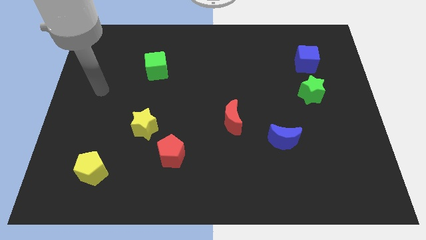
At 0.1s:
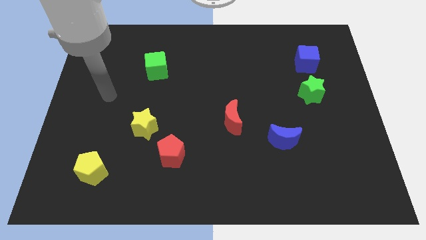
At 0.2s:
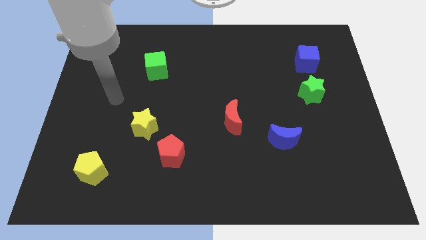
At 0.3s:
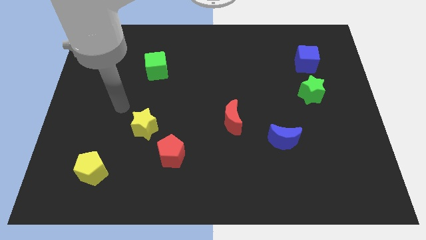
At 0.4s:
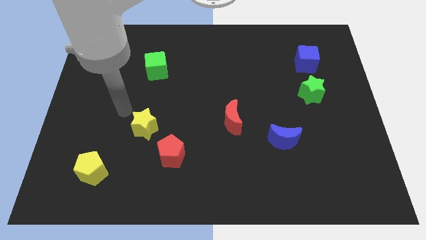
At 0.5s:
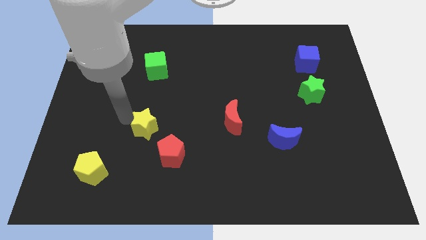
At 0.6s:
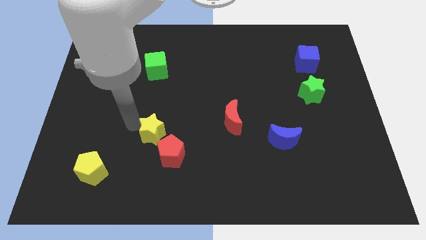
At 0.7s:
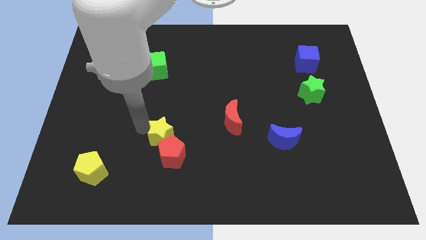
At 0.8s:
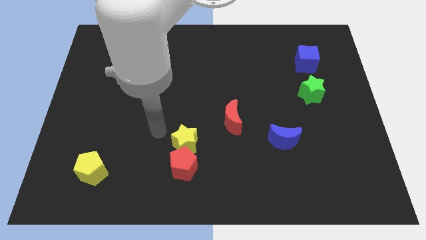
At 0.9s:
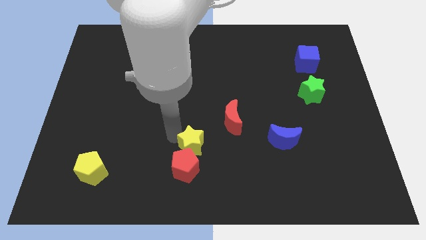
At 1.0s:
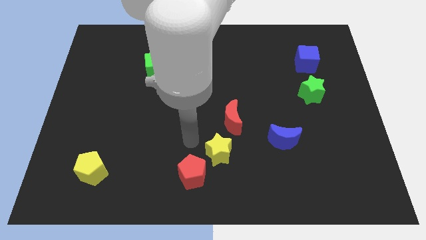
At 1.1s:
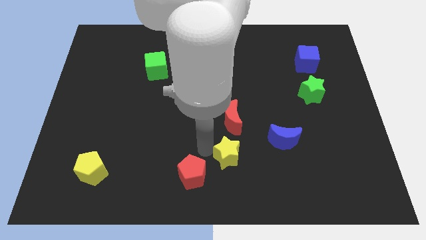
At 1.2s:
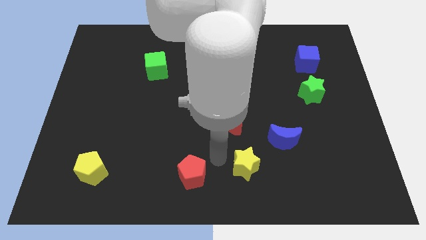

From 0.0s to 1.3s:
move the red pentagon away from the yellow star

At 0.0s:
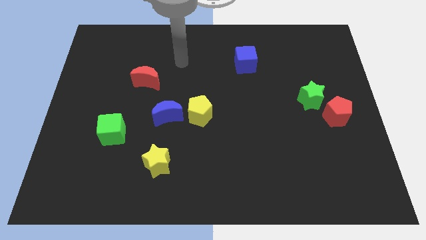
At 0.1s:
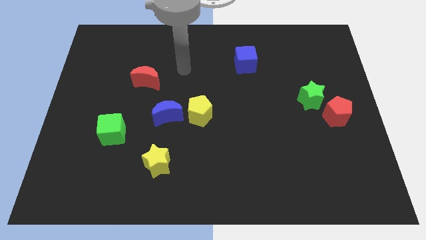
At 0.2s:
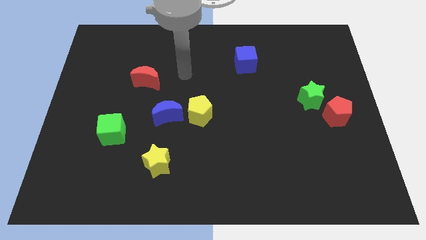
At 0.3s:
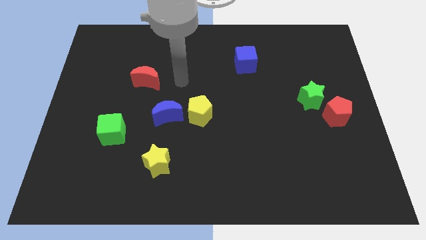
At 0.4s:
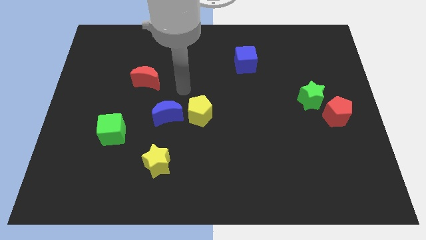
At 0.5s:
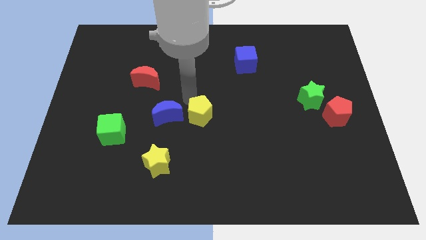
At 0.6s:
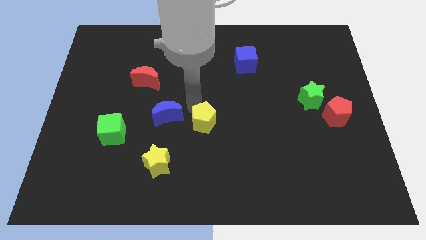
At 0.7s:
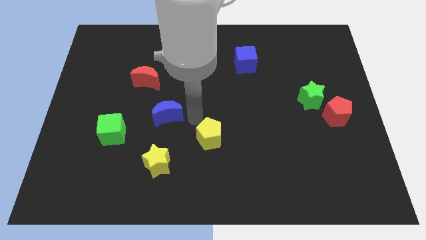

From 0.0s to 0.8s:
pull the blue moon apart from the yellow pentagon

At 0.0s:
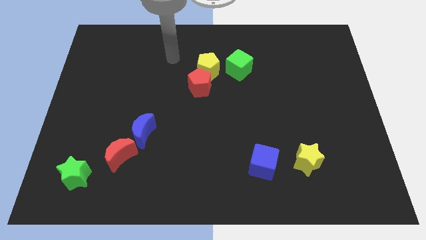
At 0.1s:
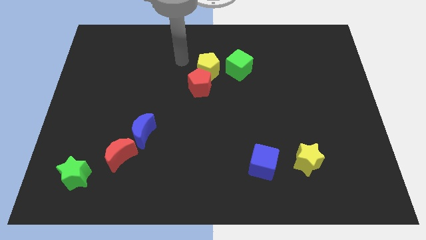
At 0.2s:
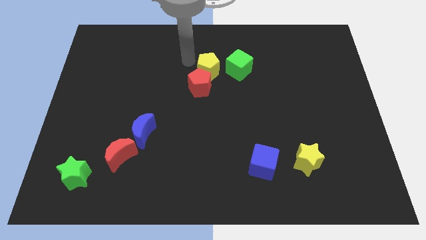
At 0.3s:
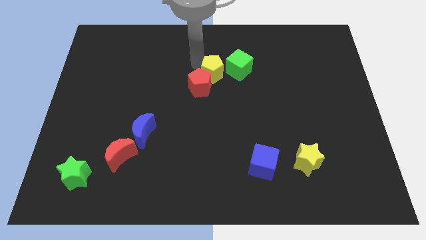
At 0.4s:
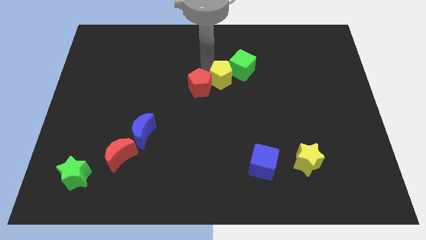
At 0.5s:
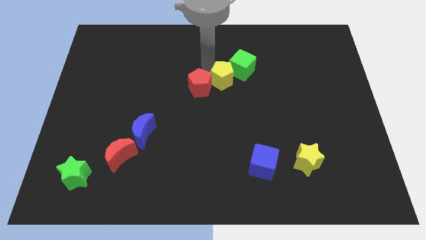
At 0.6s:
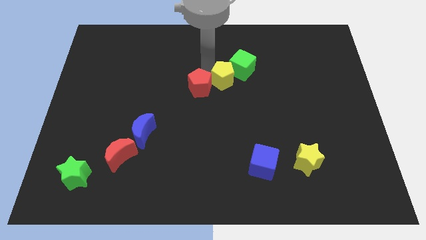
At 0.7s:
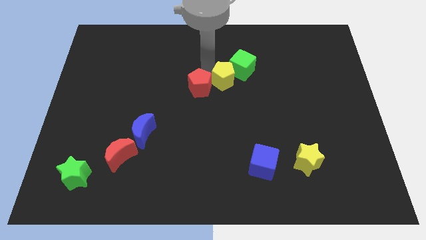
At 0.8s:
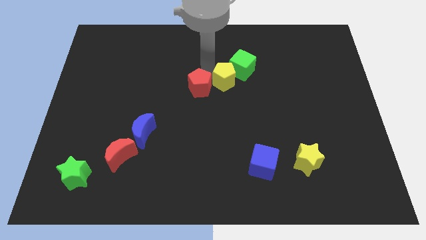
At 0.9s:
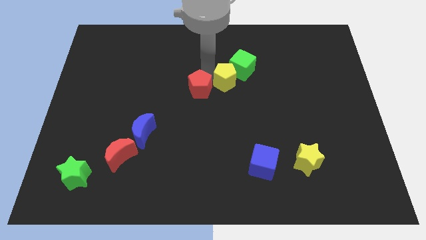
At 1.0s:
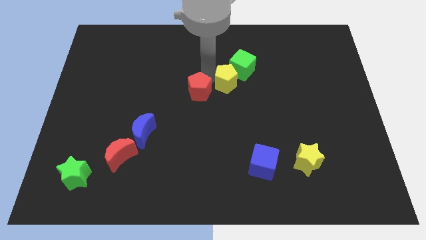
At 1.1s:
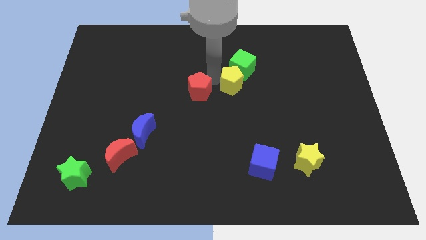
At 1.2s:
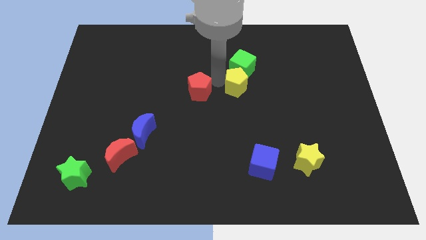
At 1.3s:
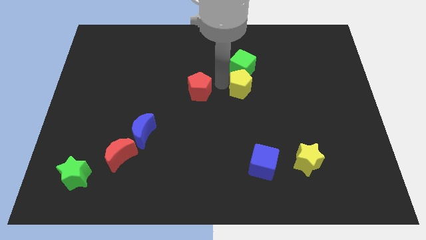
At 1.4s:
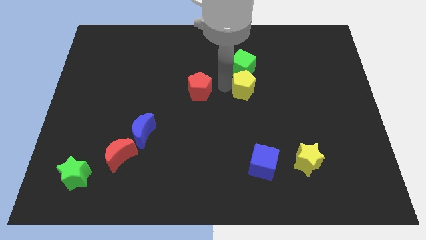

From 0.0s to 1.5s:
separate the red pentagon from the yellow pentagon

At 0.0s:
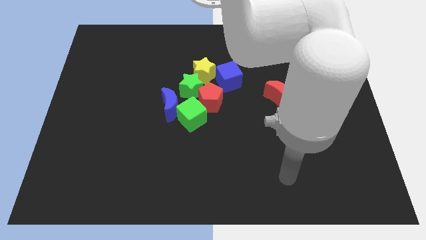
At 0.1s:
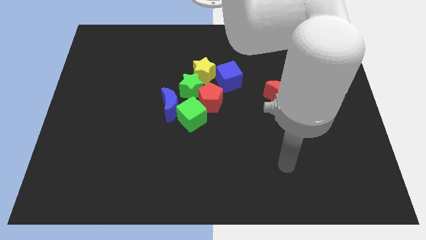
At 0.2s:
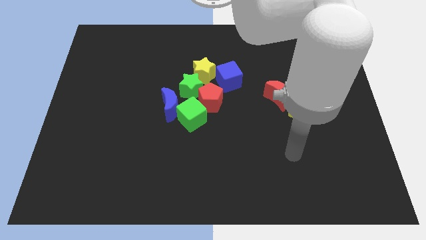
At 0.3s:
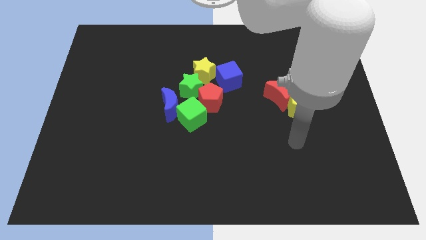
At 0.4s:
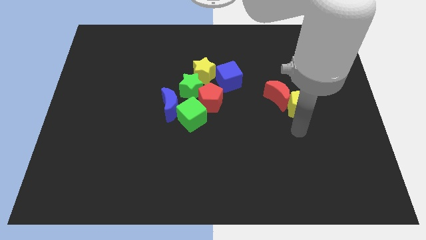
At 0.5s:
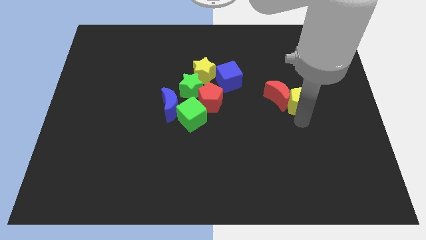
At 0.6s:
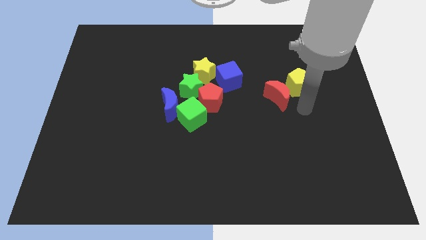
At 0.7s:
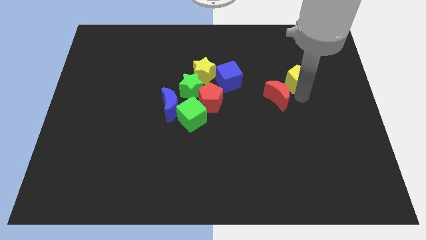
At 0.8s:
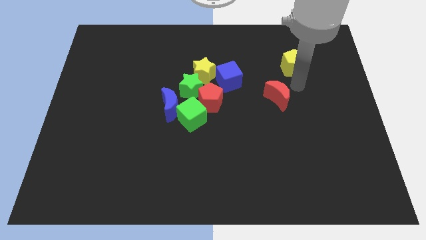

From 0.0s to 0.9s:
pull the red moon apart from the yellow pentagon

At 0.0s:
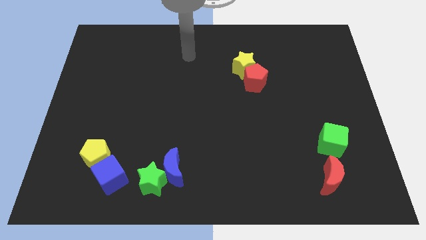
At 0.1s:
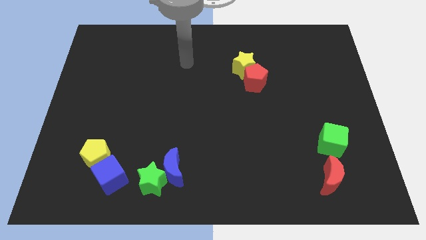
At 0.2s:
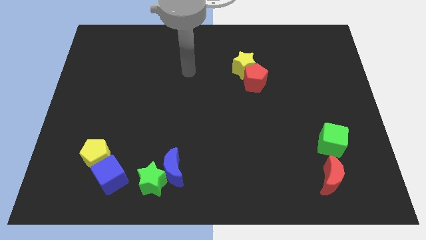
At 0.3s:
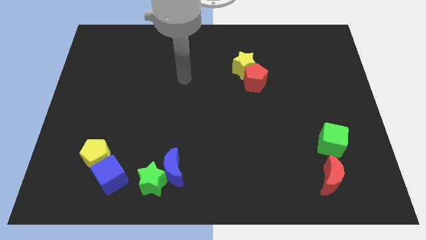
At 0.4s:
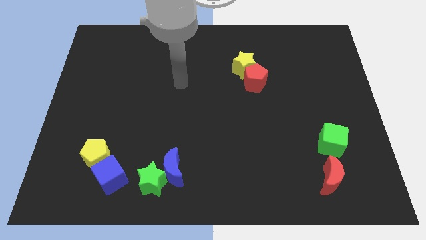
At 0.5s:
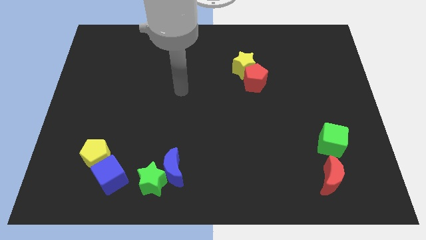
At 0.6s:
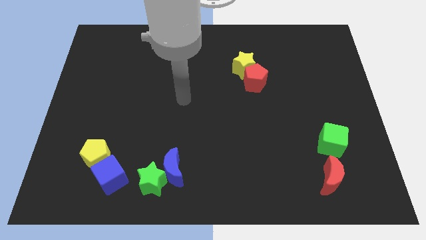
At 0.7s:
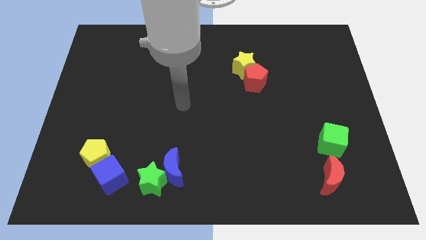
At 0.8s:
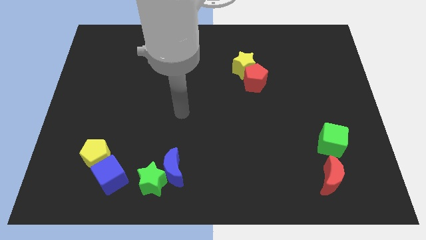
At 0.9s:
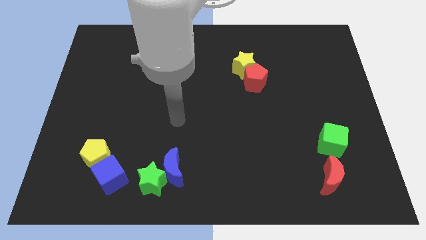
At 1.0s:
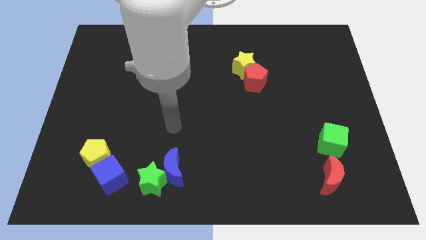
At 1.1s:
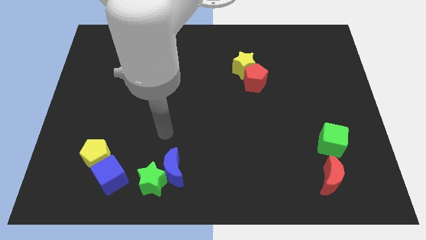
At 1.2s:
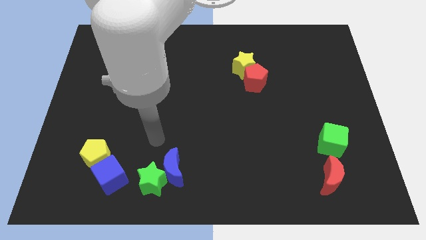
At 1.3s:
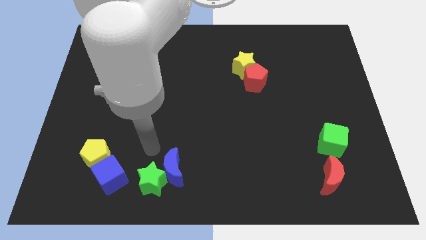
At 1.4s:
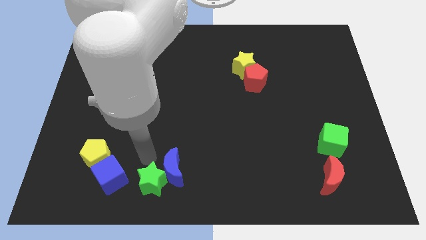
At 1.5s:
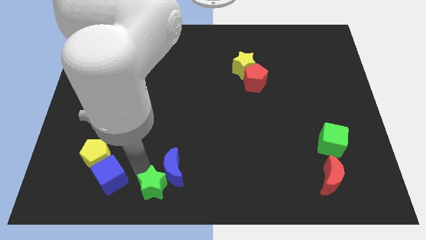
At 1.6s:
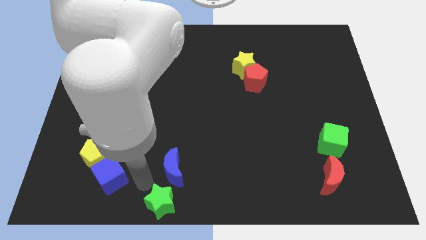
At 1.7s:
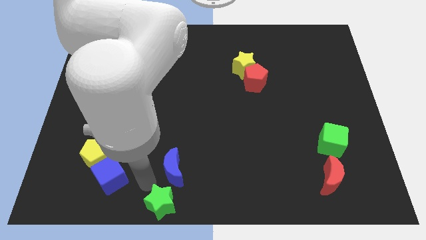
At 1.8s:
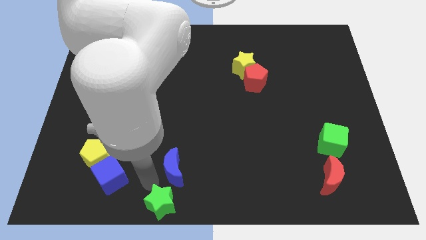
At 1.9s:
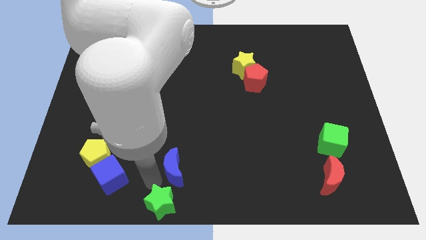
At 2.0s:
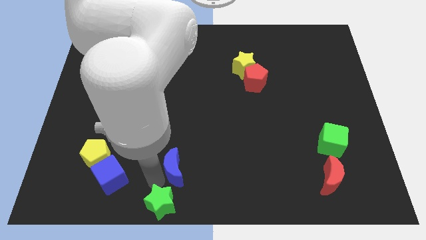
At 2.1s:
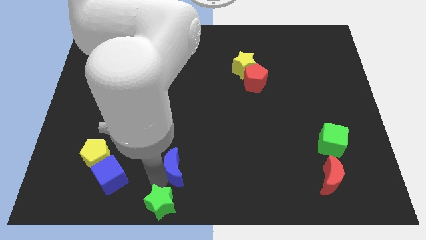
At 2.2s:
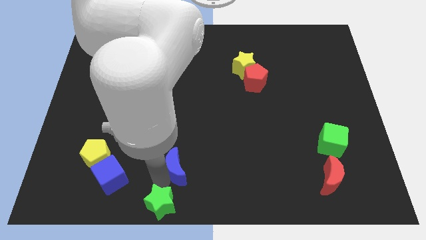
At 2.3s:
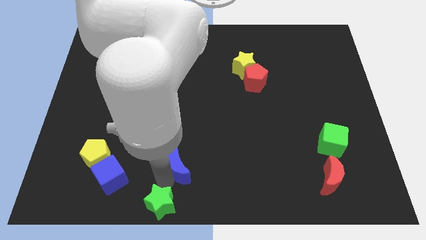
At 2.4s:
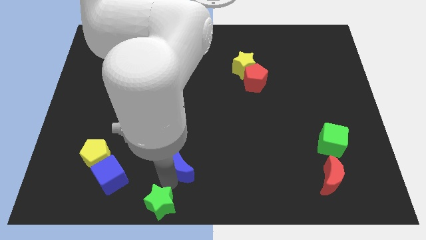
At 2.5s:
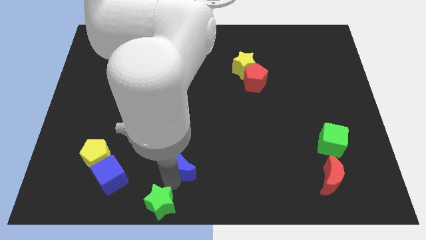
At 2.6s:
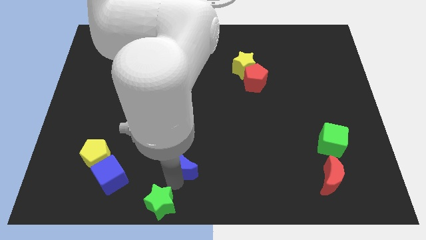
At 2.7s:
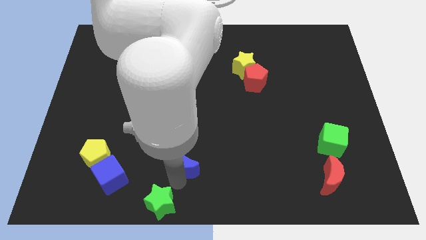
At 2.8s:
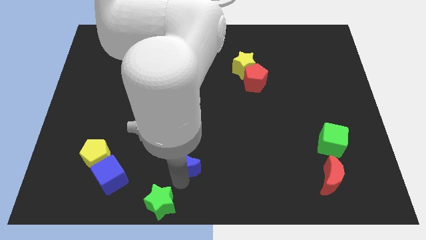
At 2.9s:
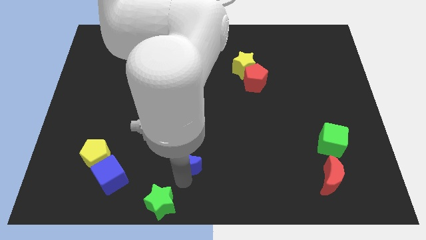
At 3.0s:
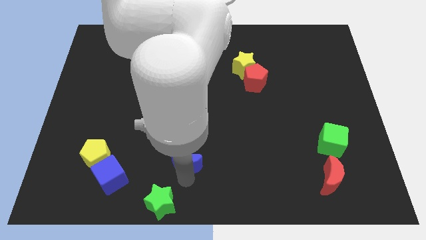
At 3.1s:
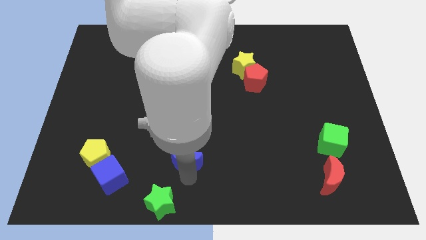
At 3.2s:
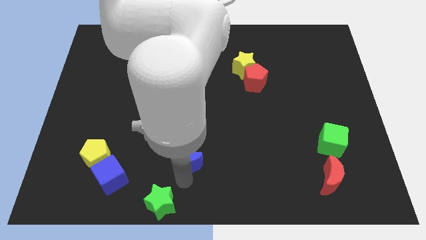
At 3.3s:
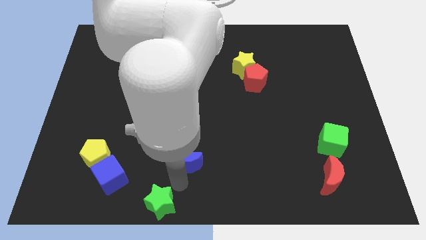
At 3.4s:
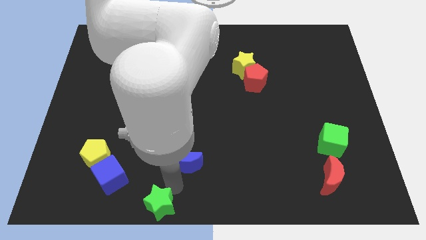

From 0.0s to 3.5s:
pull the blue moon apart from the green star

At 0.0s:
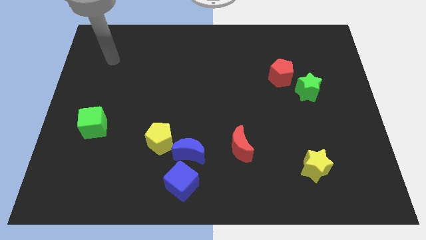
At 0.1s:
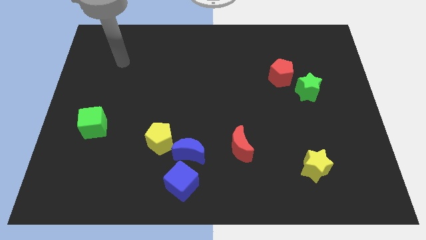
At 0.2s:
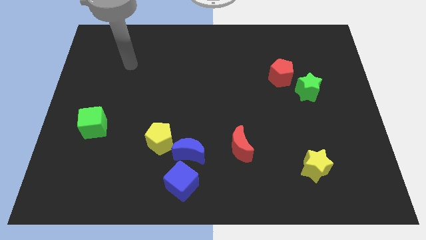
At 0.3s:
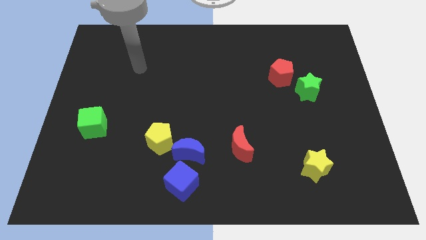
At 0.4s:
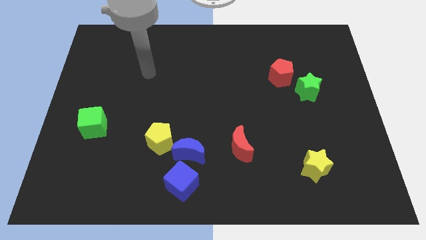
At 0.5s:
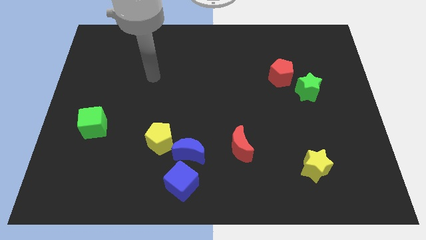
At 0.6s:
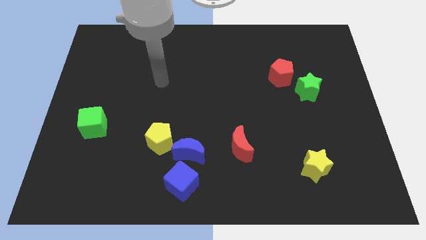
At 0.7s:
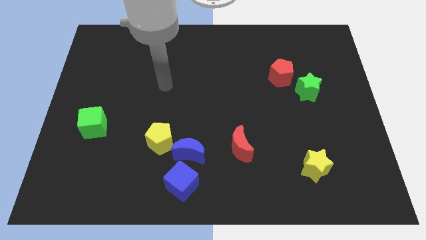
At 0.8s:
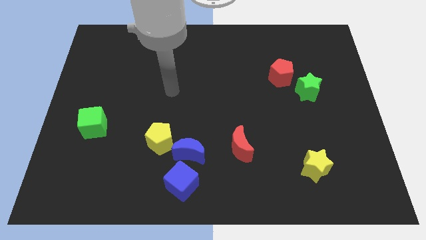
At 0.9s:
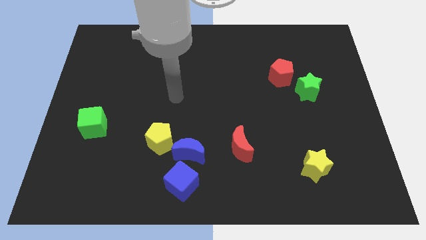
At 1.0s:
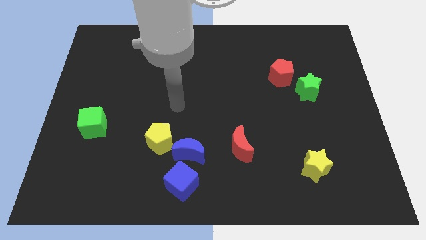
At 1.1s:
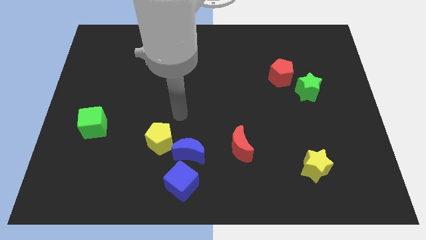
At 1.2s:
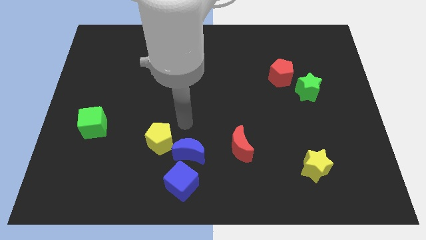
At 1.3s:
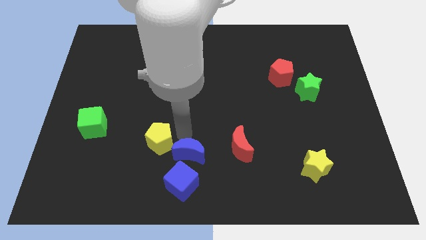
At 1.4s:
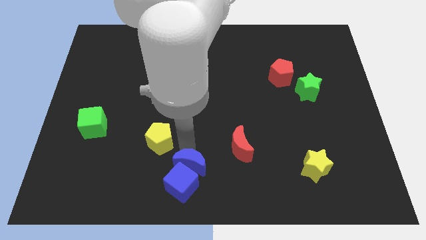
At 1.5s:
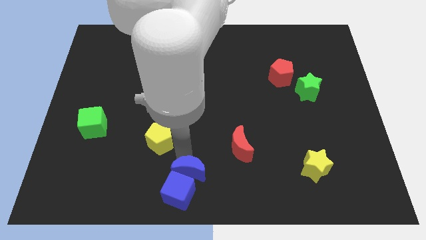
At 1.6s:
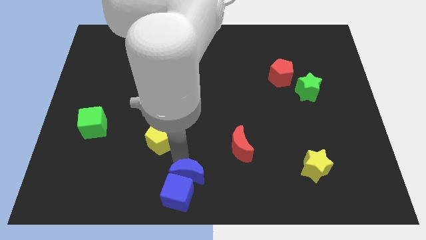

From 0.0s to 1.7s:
move the yellow pentagon away from the blue moon
